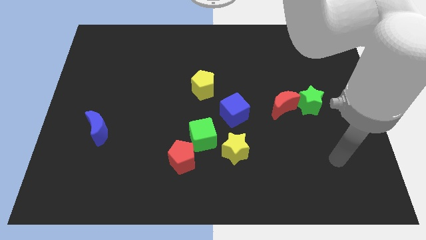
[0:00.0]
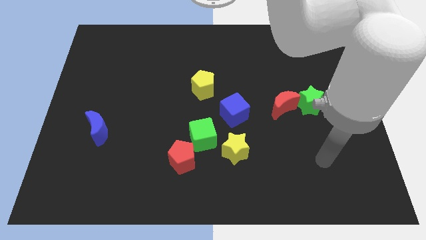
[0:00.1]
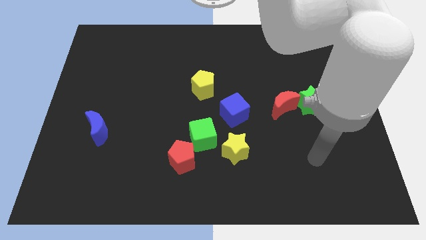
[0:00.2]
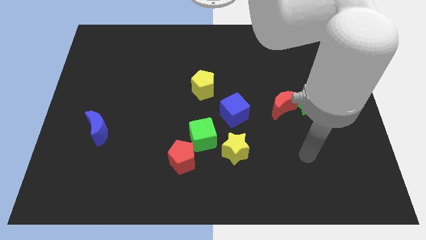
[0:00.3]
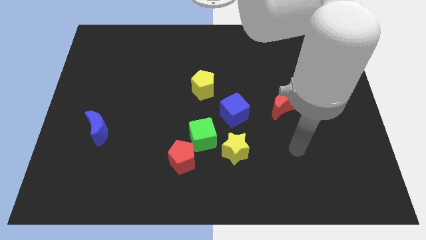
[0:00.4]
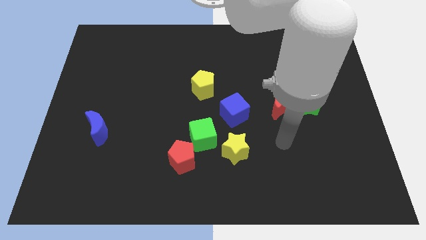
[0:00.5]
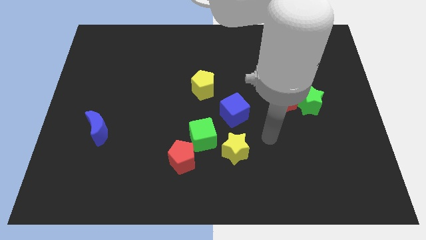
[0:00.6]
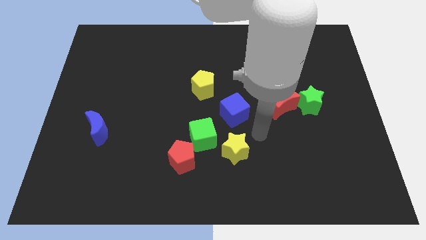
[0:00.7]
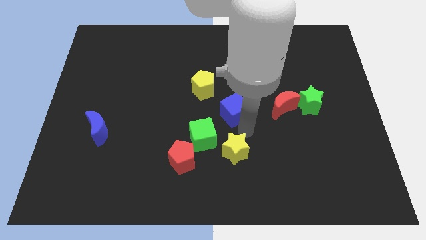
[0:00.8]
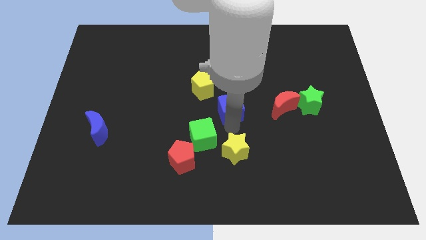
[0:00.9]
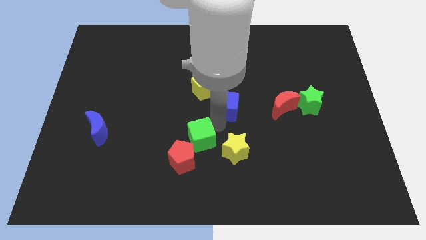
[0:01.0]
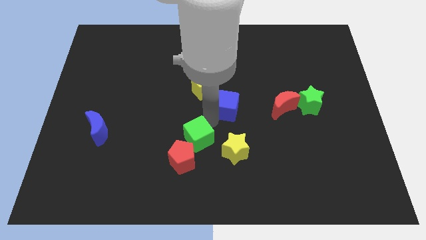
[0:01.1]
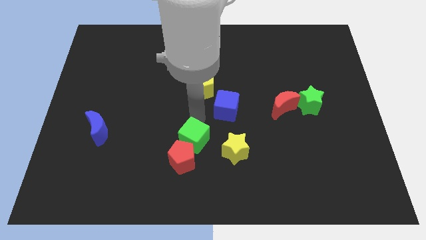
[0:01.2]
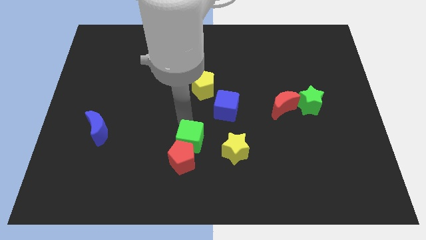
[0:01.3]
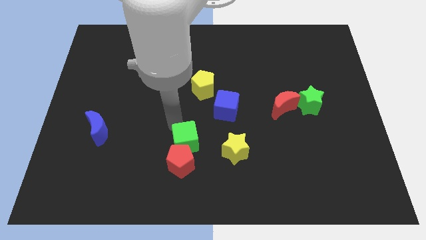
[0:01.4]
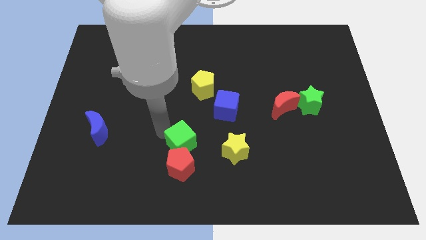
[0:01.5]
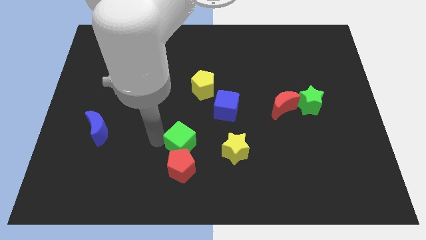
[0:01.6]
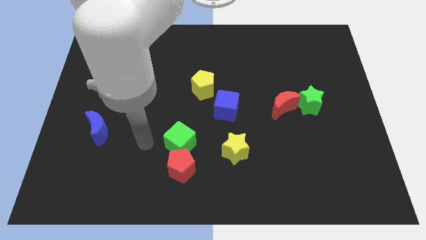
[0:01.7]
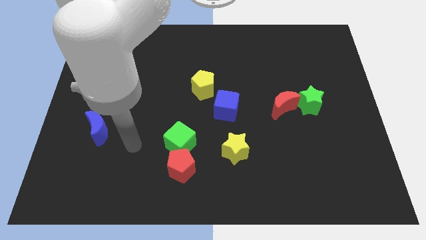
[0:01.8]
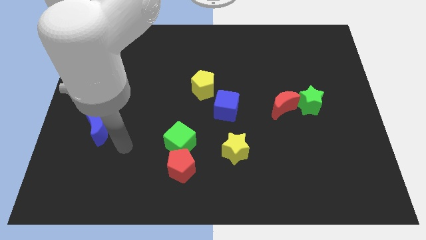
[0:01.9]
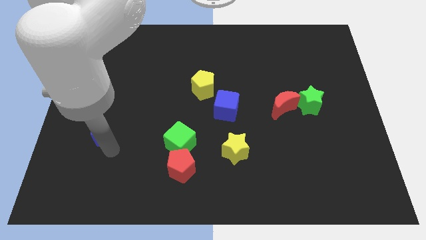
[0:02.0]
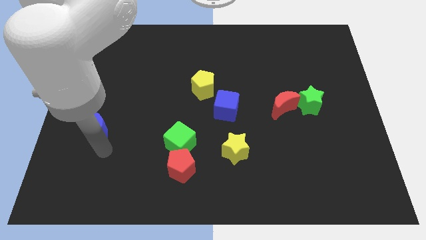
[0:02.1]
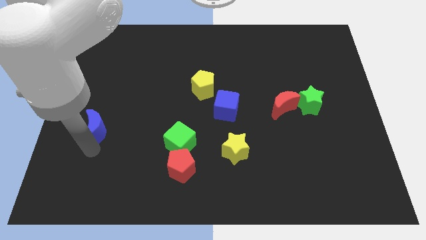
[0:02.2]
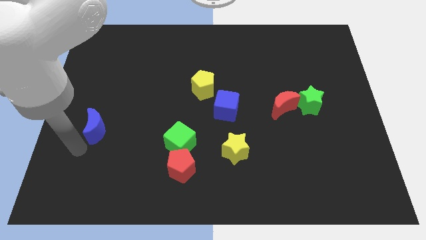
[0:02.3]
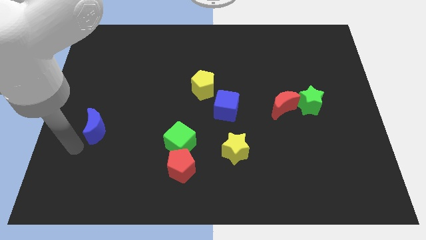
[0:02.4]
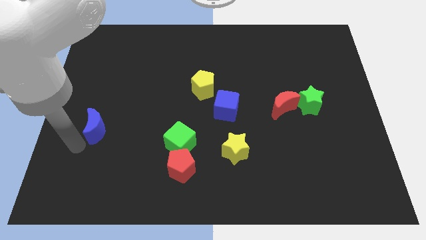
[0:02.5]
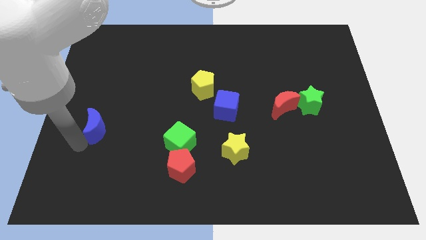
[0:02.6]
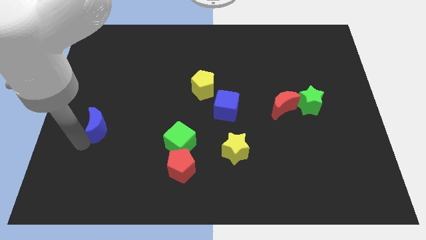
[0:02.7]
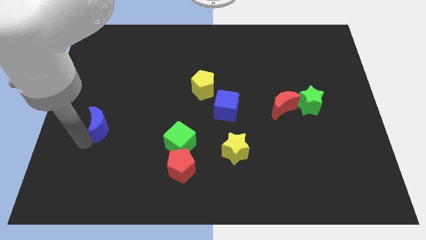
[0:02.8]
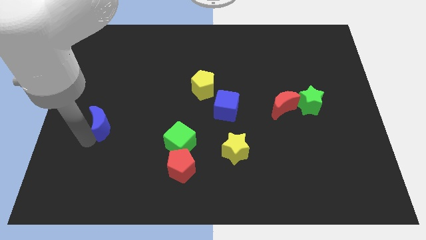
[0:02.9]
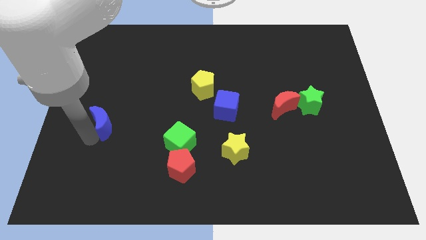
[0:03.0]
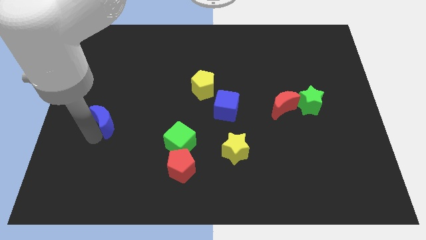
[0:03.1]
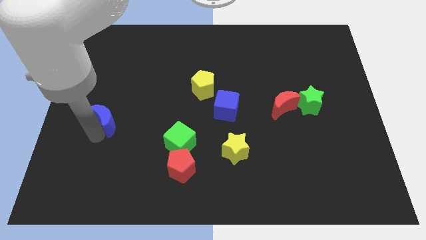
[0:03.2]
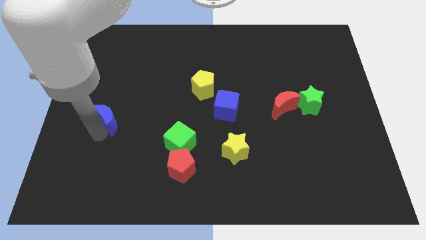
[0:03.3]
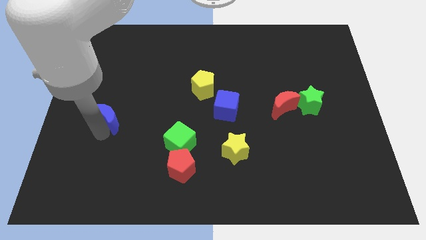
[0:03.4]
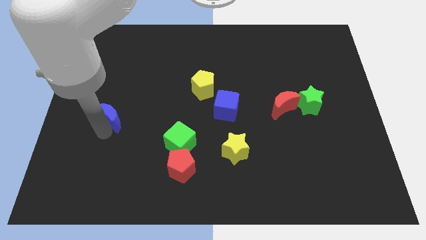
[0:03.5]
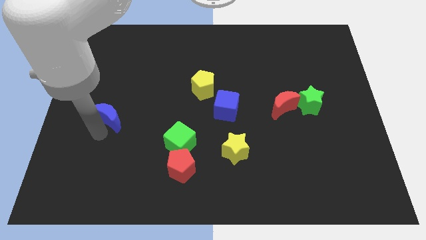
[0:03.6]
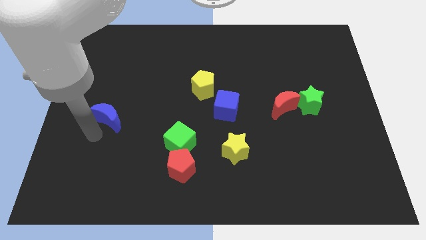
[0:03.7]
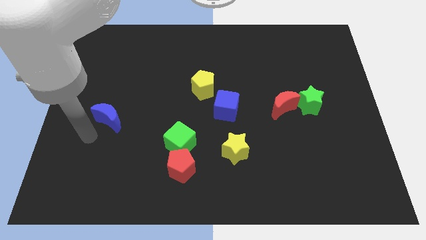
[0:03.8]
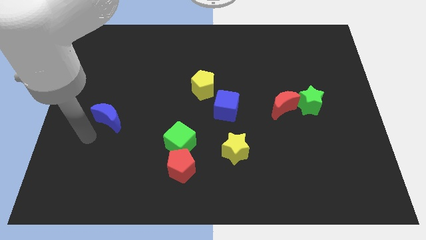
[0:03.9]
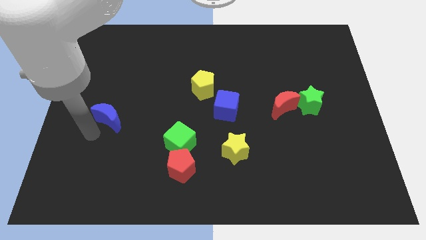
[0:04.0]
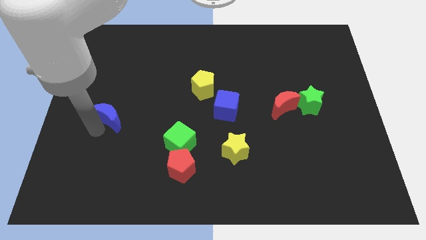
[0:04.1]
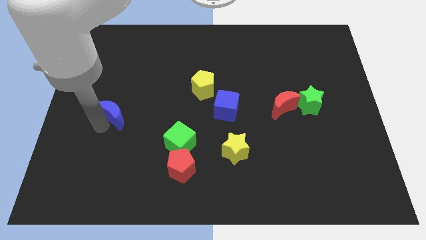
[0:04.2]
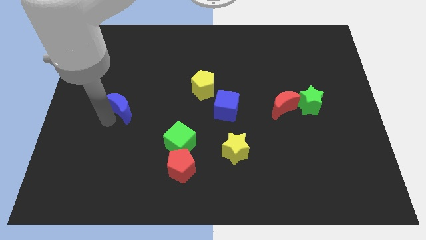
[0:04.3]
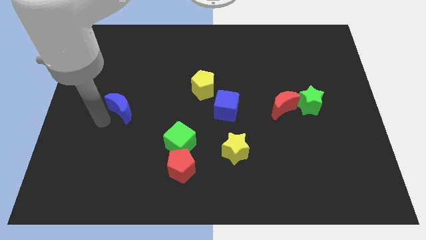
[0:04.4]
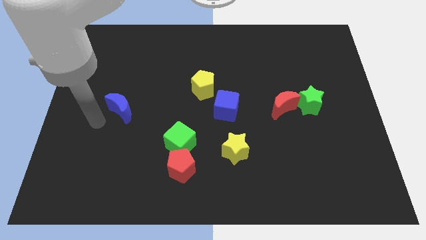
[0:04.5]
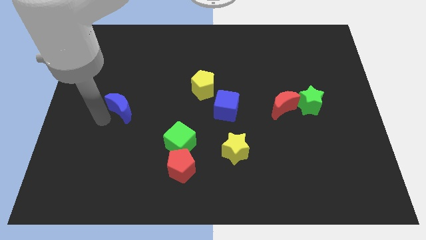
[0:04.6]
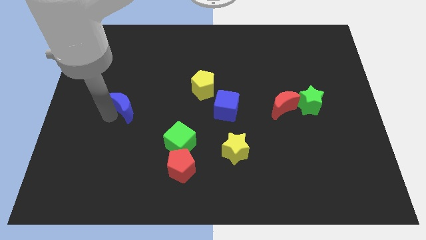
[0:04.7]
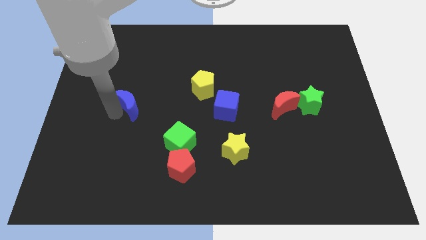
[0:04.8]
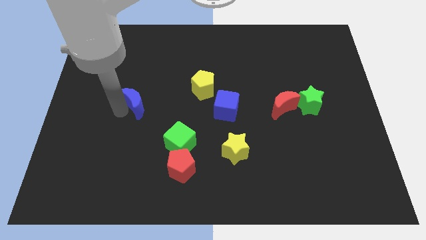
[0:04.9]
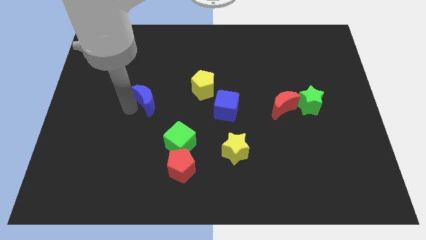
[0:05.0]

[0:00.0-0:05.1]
move the blue moon left of the yellow pentagon

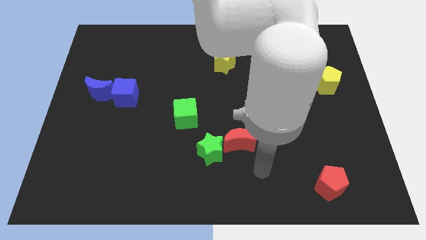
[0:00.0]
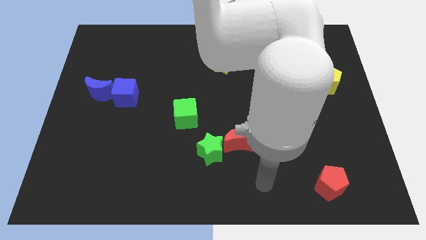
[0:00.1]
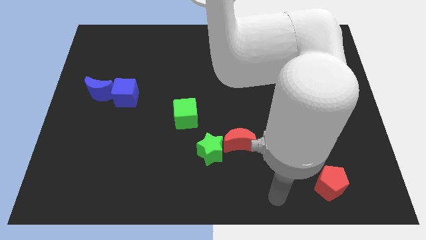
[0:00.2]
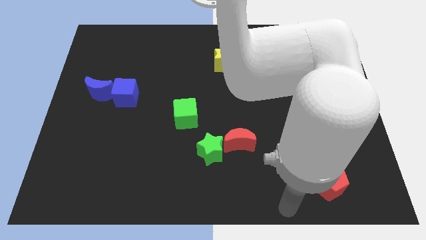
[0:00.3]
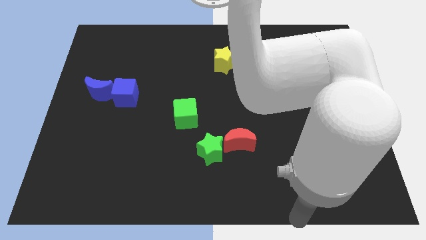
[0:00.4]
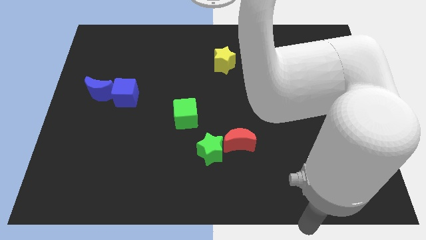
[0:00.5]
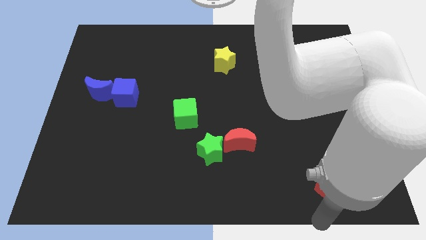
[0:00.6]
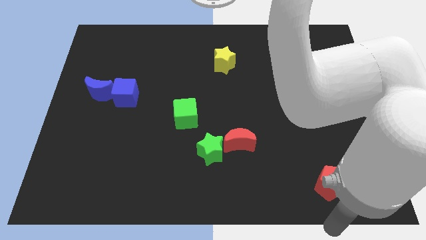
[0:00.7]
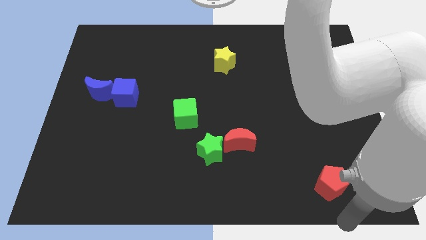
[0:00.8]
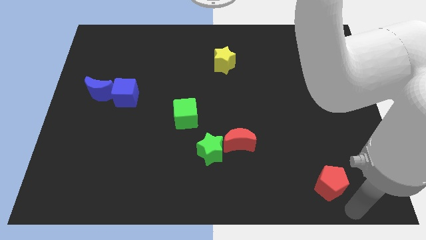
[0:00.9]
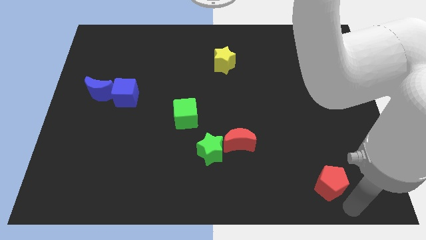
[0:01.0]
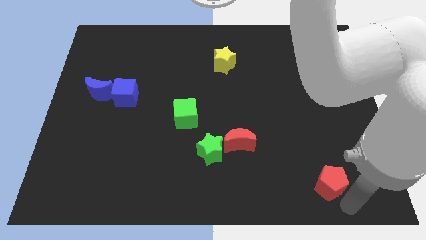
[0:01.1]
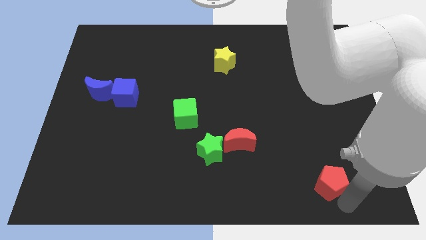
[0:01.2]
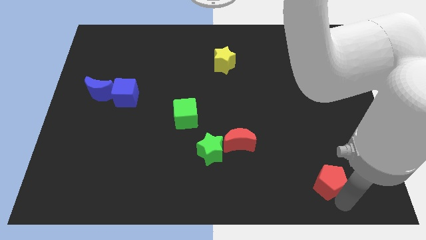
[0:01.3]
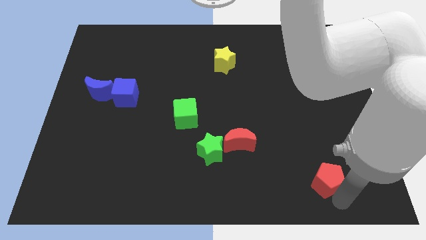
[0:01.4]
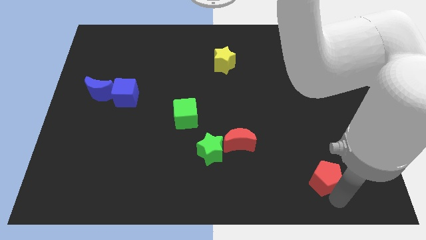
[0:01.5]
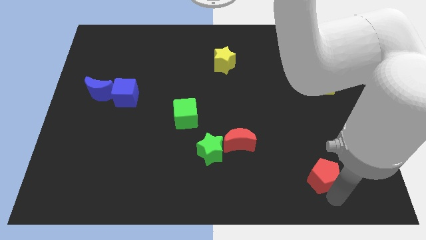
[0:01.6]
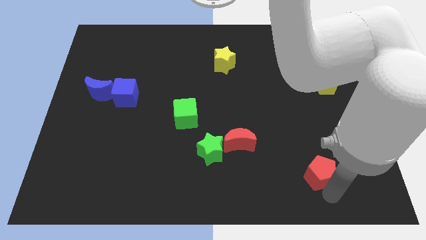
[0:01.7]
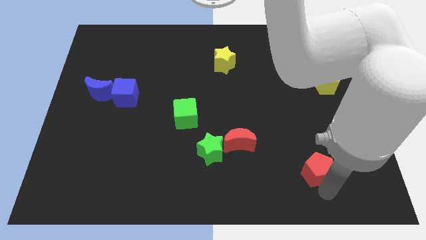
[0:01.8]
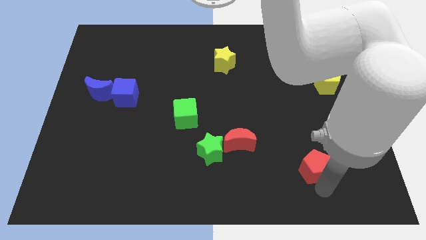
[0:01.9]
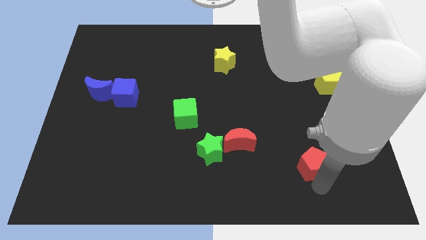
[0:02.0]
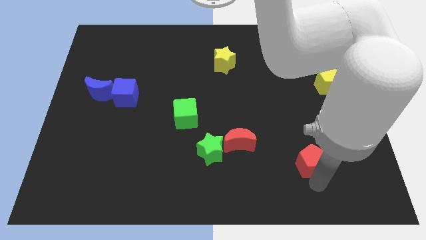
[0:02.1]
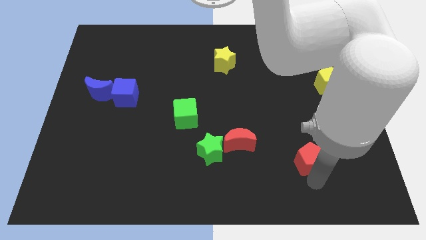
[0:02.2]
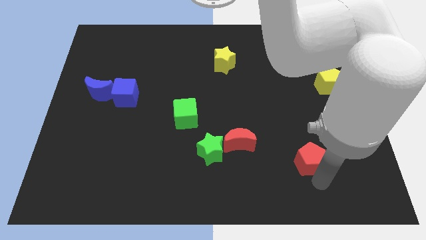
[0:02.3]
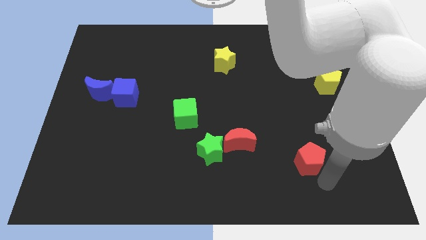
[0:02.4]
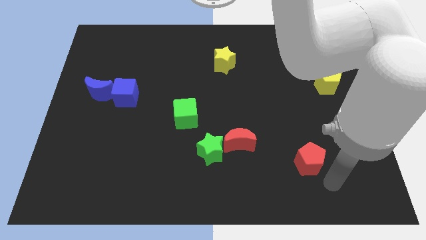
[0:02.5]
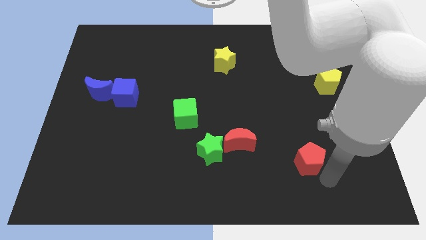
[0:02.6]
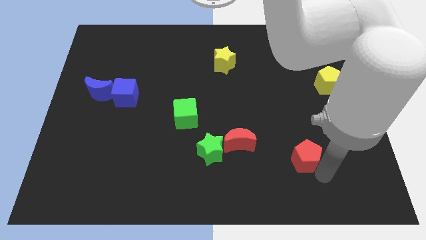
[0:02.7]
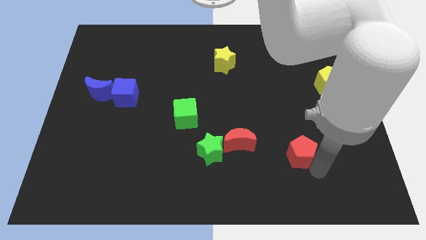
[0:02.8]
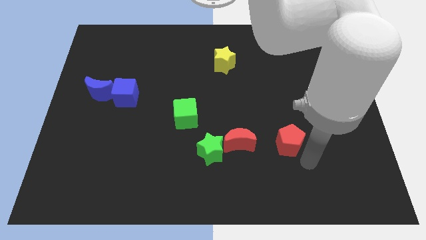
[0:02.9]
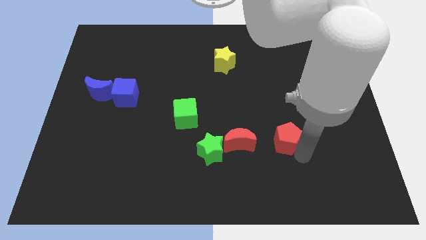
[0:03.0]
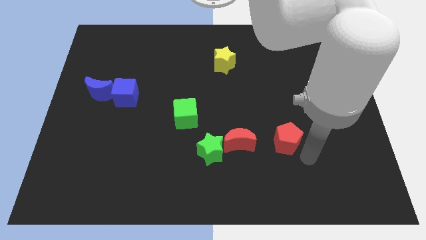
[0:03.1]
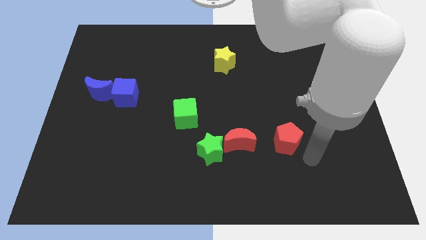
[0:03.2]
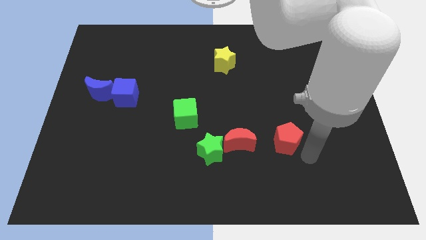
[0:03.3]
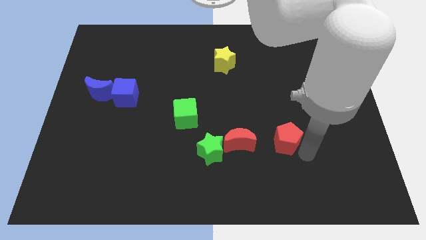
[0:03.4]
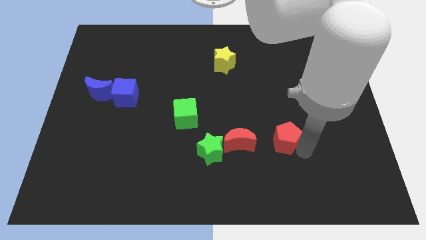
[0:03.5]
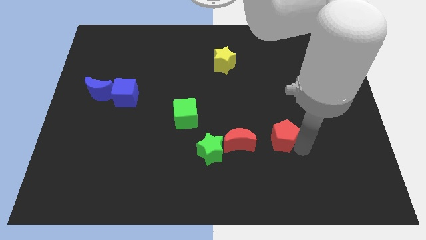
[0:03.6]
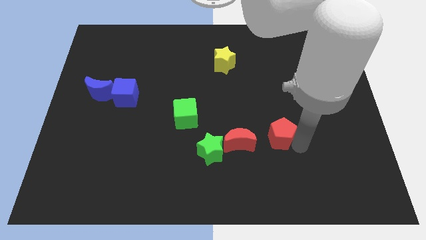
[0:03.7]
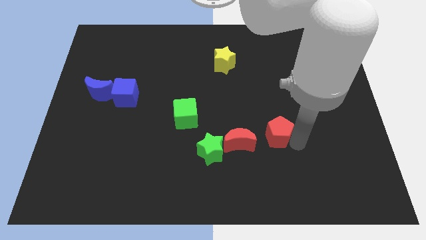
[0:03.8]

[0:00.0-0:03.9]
push the red pentagon to the top right side of the red moon
